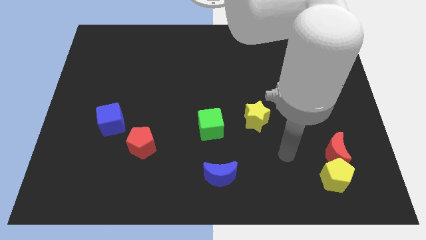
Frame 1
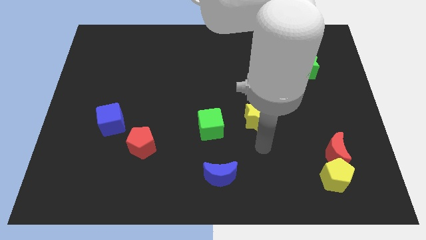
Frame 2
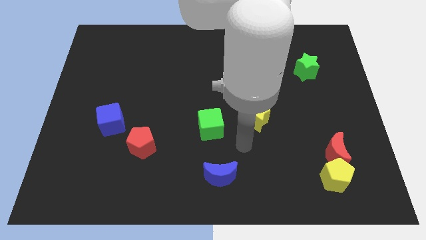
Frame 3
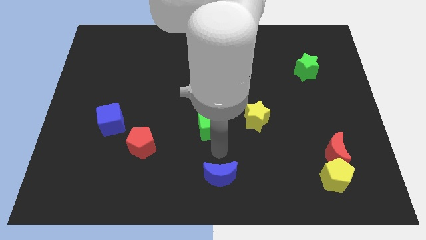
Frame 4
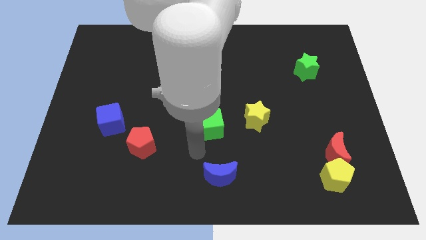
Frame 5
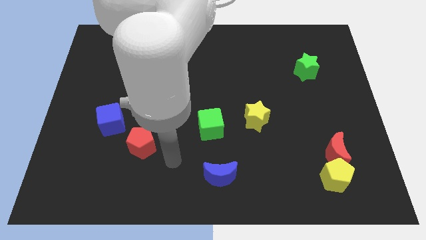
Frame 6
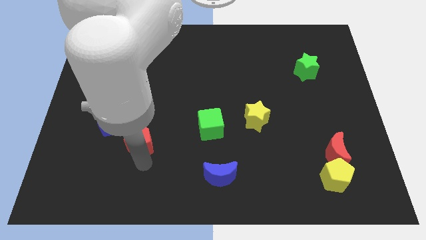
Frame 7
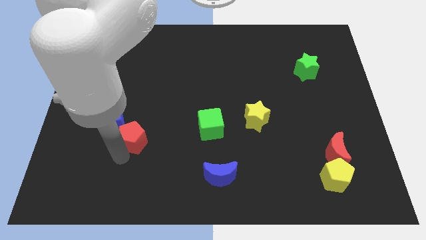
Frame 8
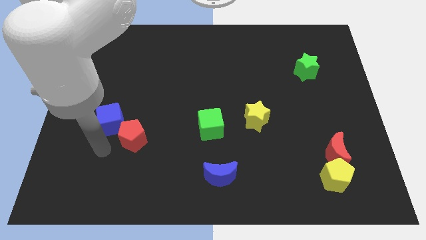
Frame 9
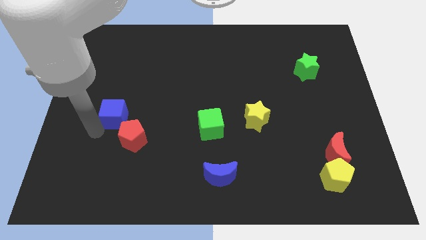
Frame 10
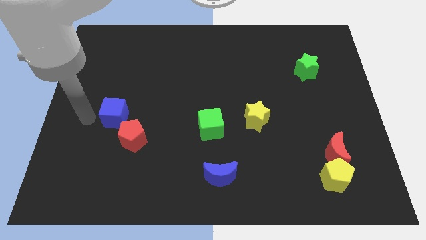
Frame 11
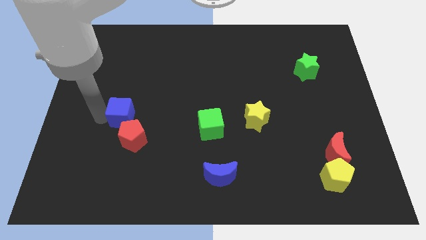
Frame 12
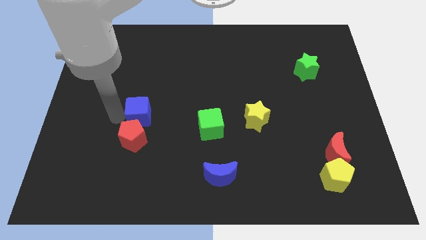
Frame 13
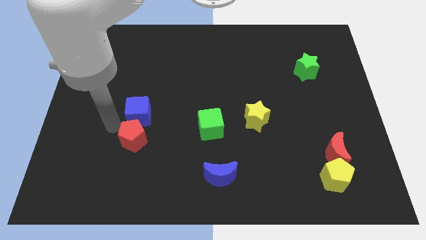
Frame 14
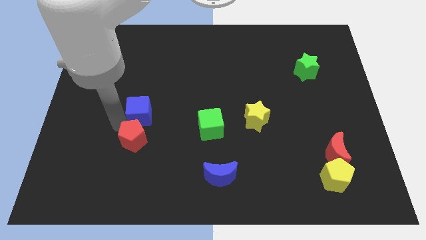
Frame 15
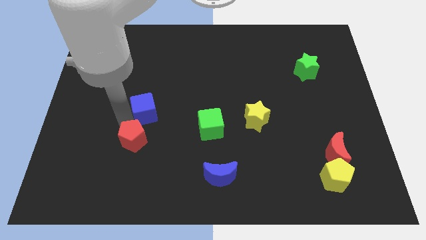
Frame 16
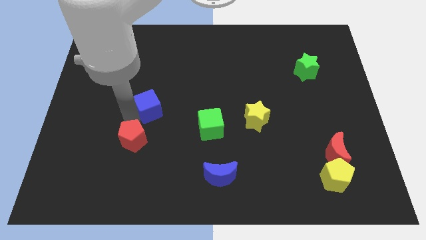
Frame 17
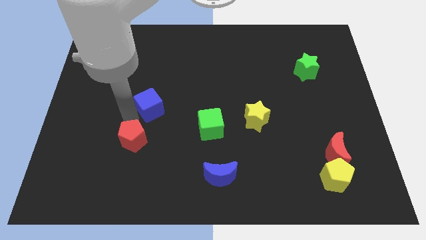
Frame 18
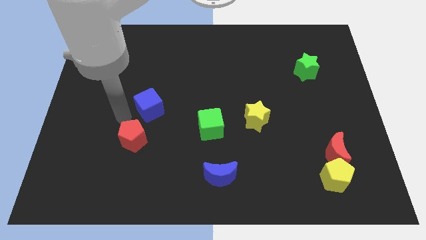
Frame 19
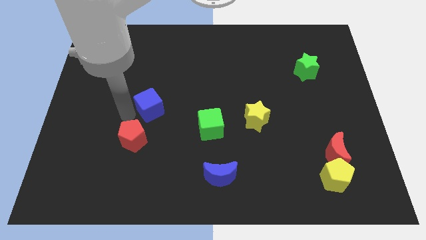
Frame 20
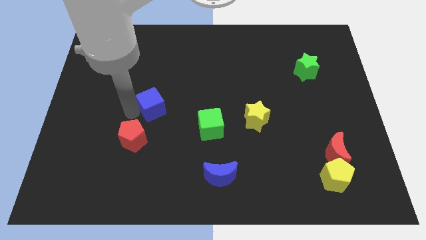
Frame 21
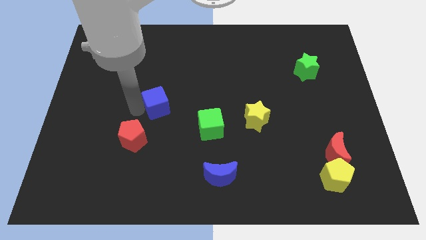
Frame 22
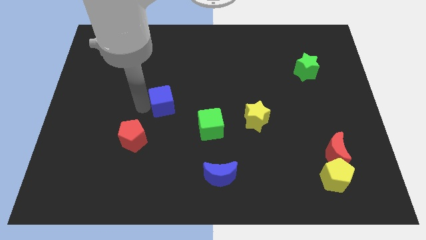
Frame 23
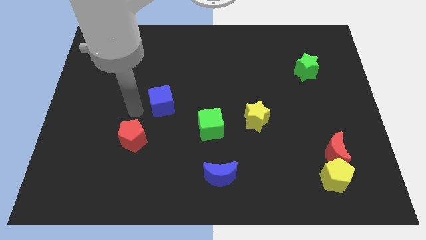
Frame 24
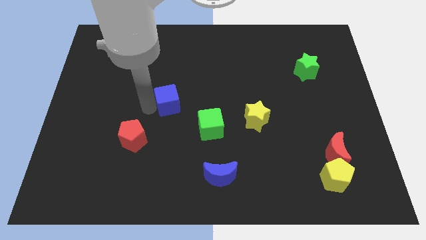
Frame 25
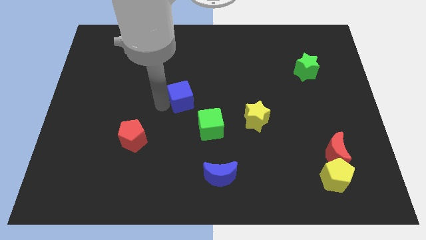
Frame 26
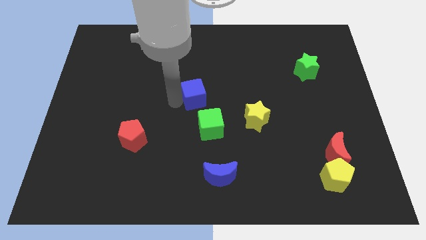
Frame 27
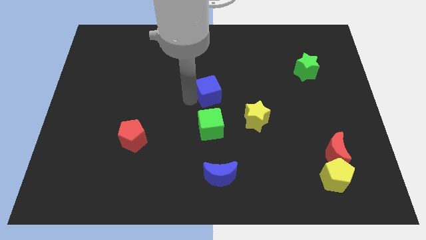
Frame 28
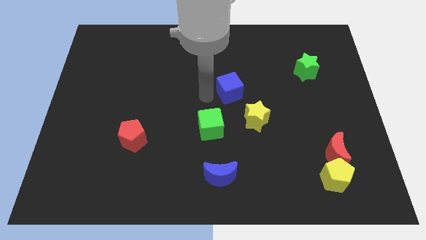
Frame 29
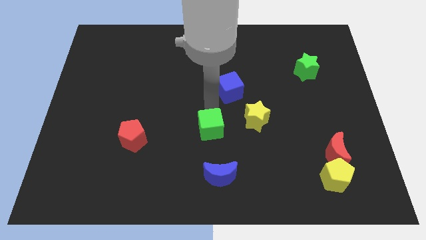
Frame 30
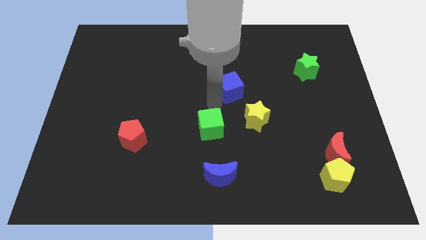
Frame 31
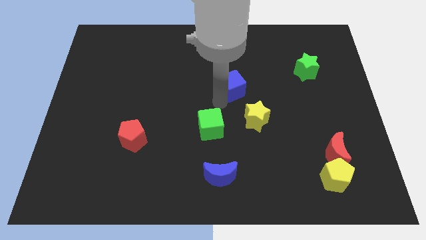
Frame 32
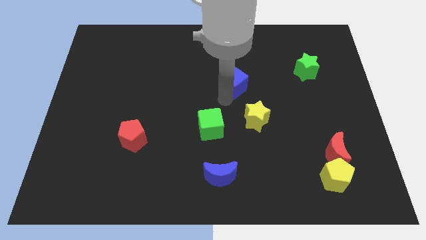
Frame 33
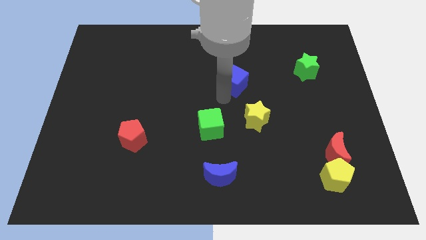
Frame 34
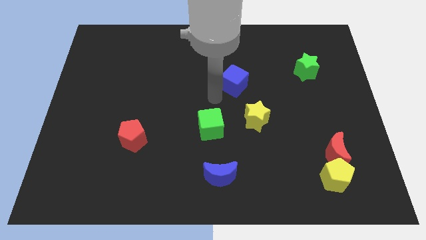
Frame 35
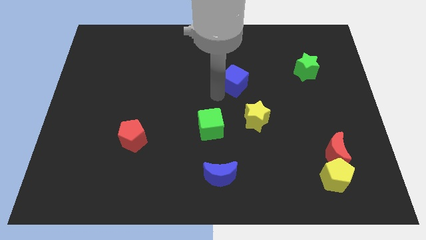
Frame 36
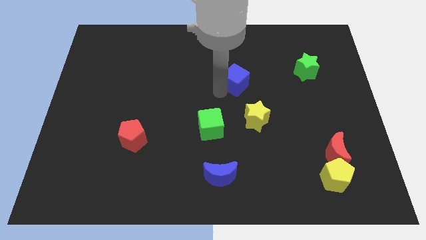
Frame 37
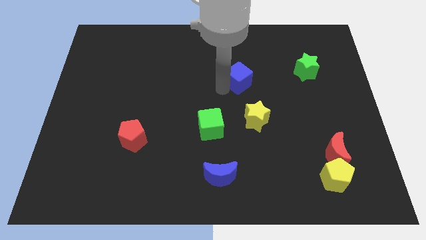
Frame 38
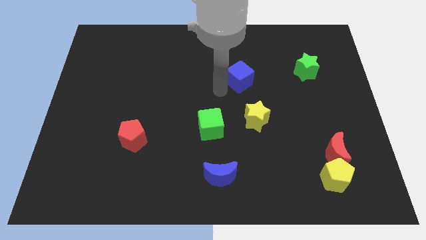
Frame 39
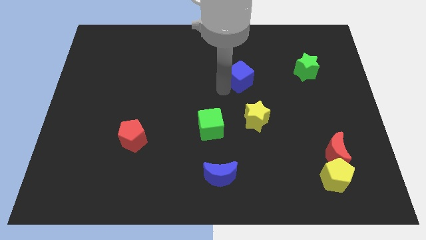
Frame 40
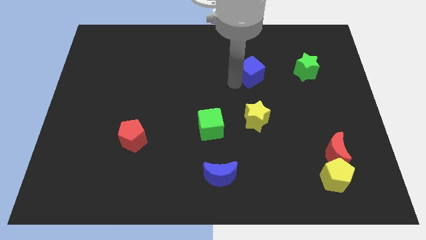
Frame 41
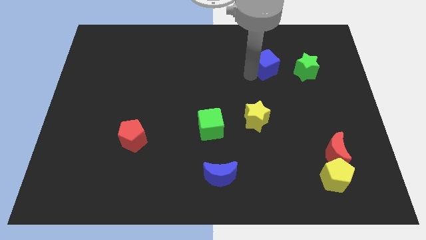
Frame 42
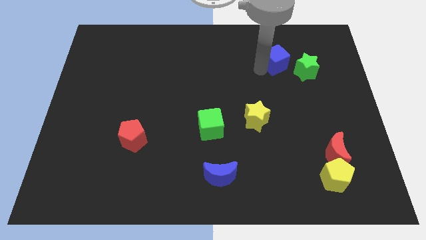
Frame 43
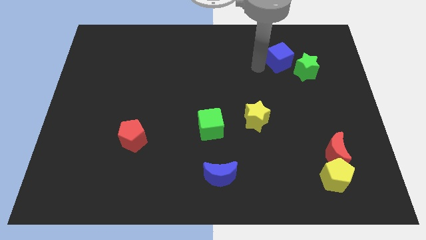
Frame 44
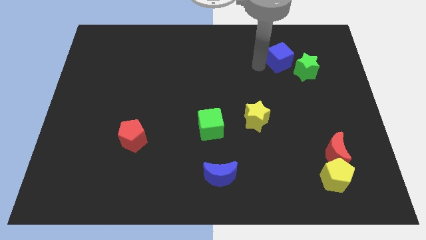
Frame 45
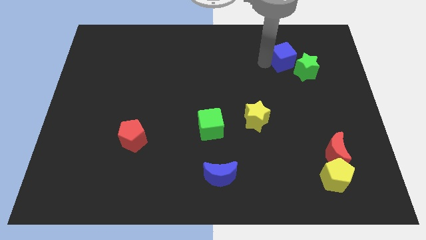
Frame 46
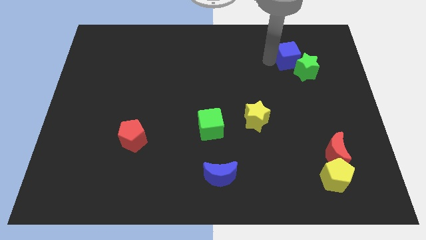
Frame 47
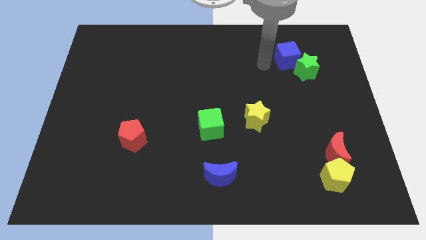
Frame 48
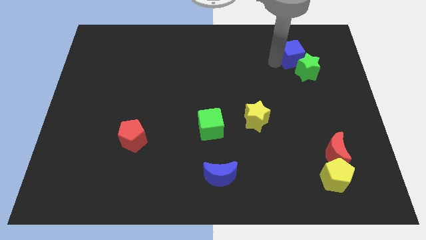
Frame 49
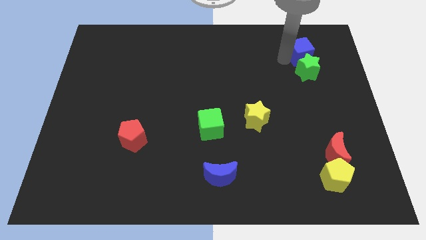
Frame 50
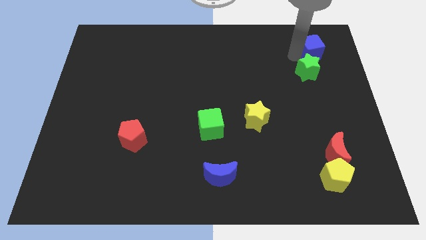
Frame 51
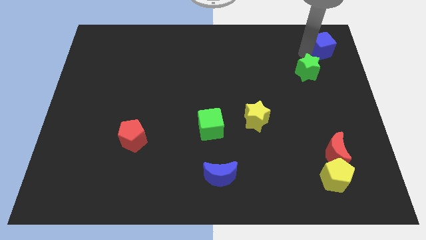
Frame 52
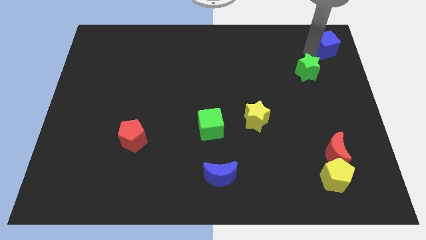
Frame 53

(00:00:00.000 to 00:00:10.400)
push the blue cube to the top right
